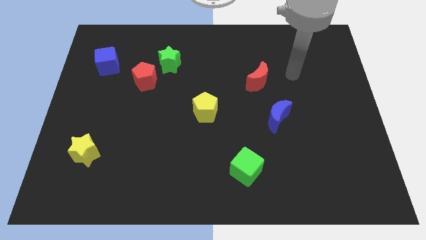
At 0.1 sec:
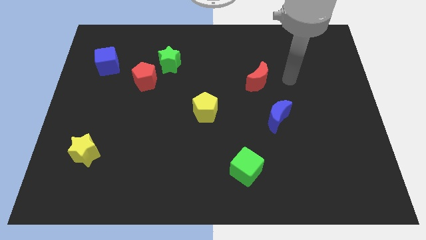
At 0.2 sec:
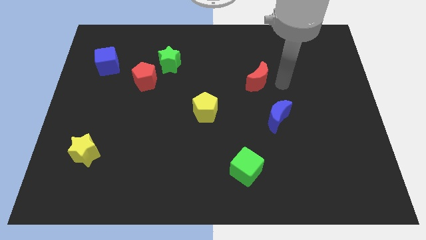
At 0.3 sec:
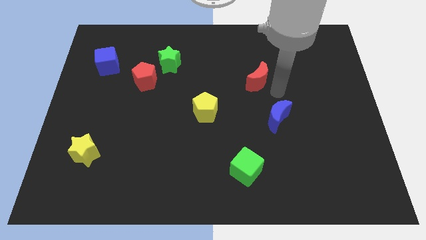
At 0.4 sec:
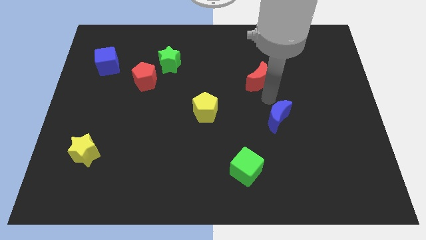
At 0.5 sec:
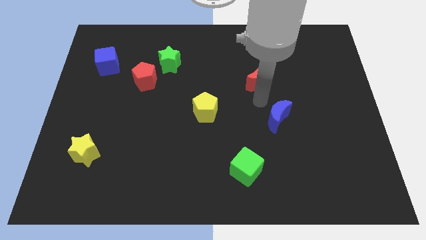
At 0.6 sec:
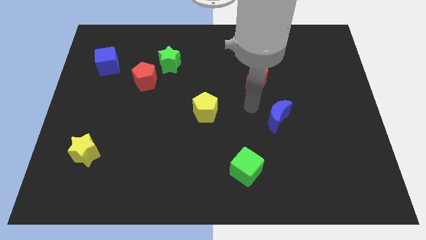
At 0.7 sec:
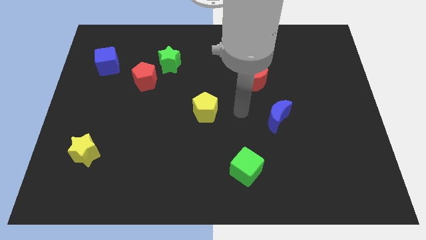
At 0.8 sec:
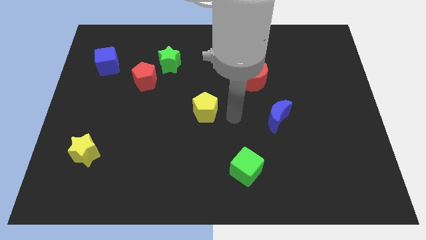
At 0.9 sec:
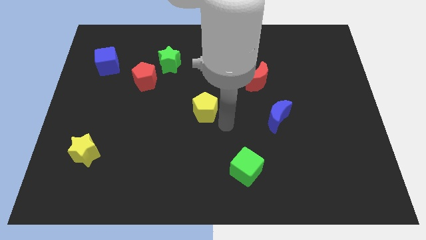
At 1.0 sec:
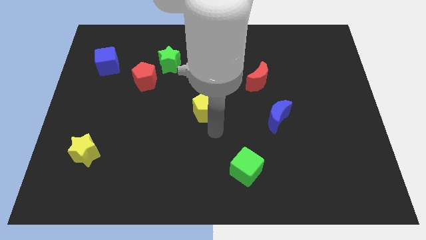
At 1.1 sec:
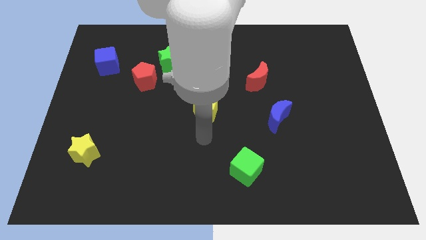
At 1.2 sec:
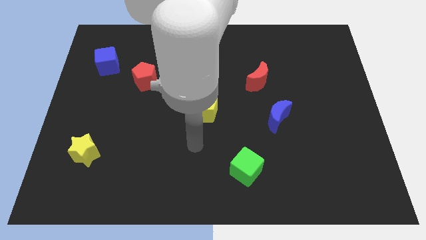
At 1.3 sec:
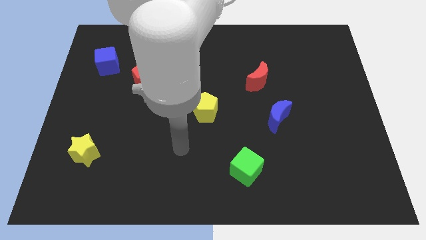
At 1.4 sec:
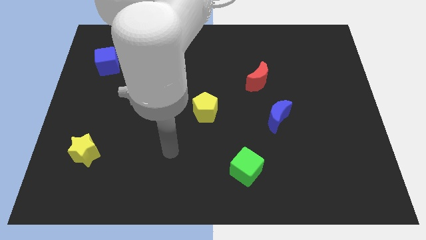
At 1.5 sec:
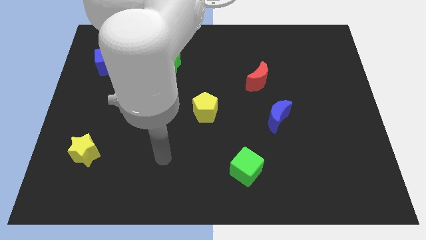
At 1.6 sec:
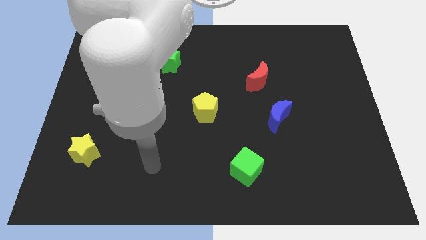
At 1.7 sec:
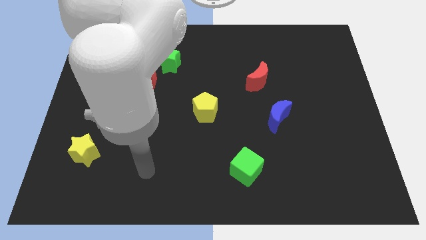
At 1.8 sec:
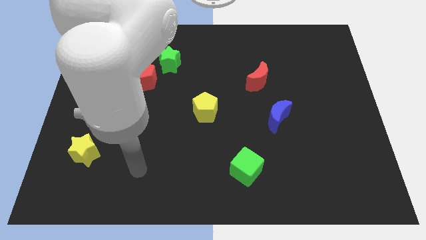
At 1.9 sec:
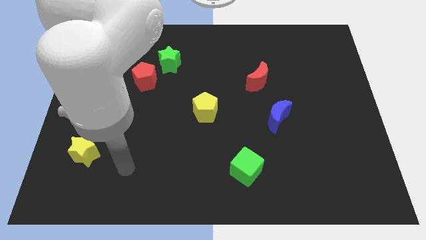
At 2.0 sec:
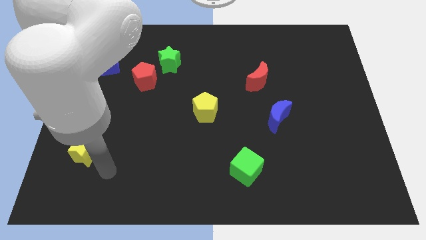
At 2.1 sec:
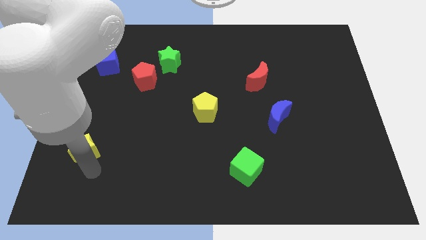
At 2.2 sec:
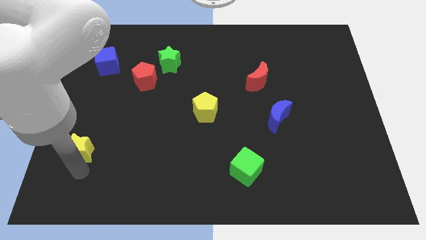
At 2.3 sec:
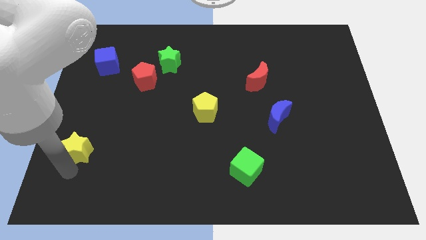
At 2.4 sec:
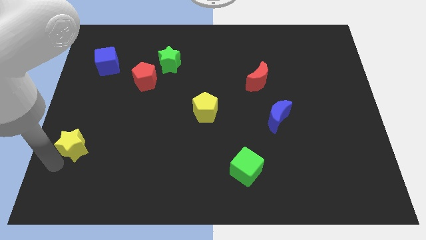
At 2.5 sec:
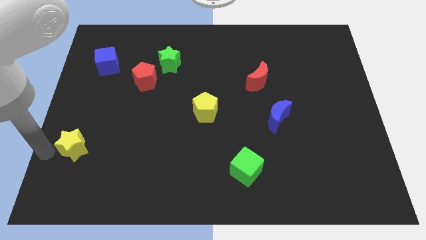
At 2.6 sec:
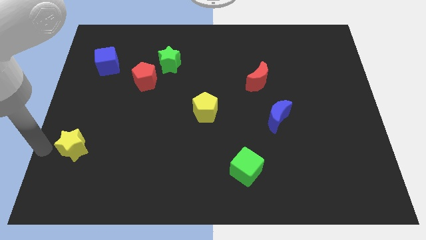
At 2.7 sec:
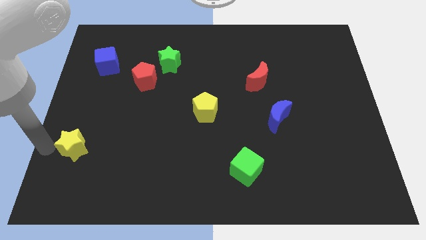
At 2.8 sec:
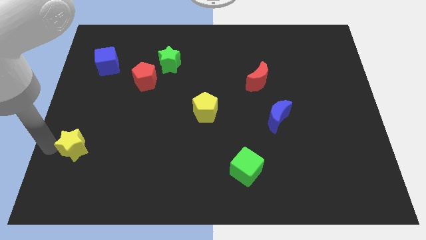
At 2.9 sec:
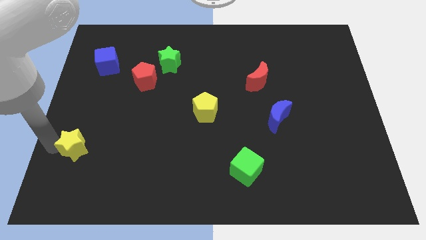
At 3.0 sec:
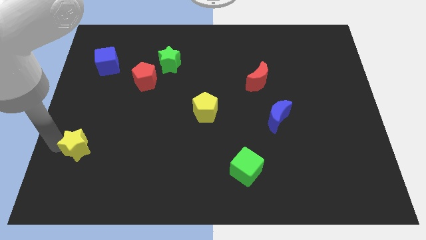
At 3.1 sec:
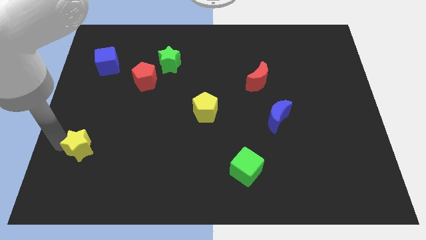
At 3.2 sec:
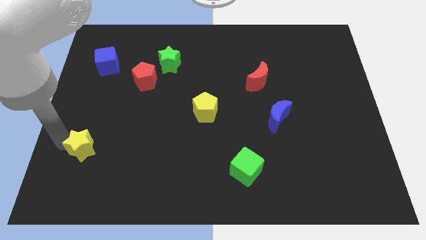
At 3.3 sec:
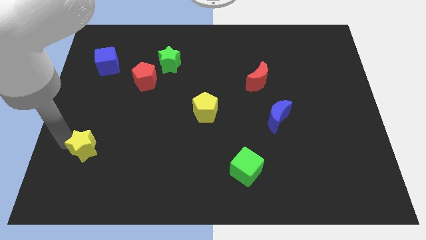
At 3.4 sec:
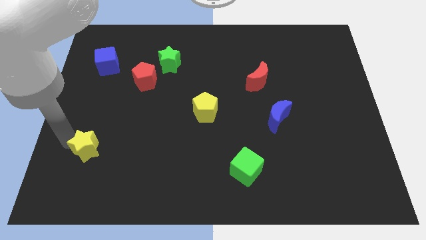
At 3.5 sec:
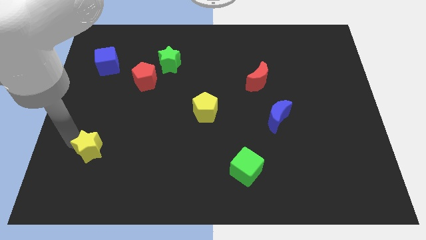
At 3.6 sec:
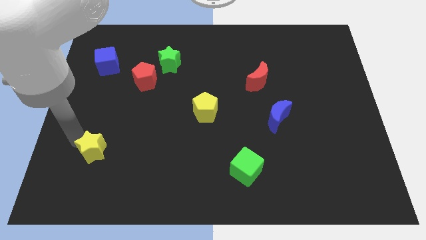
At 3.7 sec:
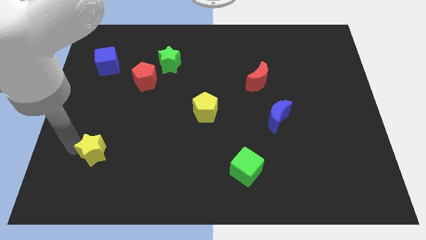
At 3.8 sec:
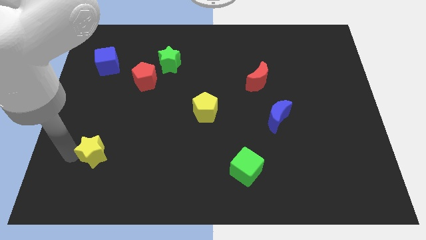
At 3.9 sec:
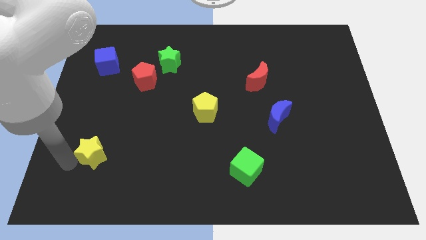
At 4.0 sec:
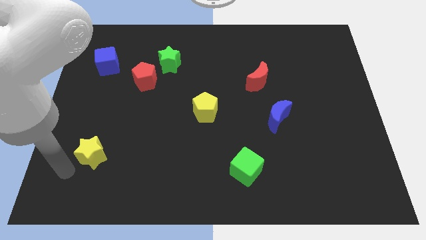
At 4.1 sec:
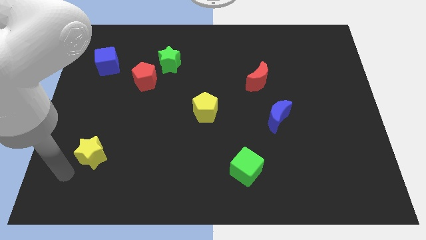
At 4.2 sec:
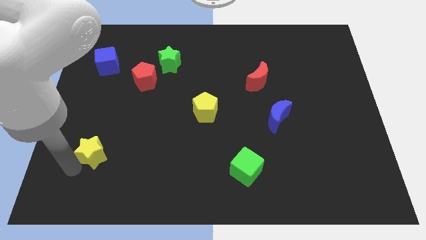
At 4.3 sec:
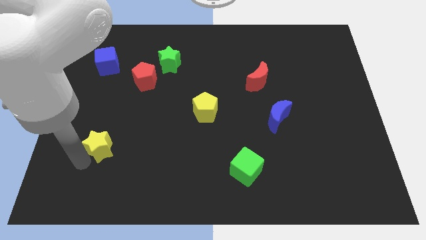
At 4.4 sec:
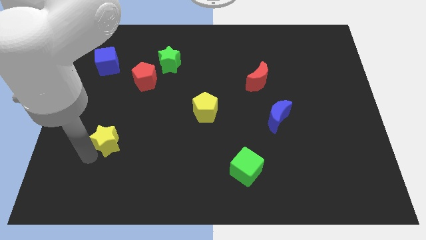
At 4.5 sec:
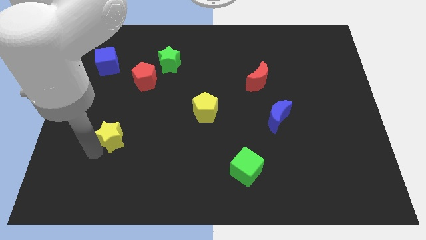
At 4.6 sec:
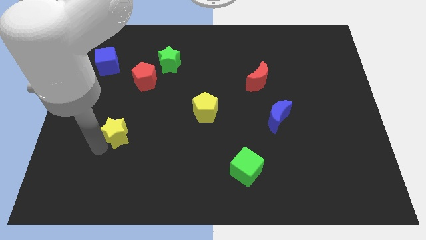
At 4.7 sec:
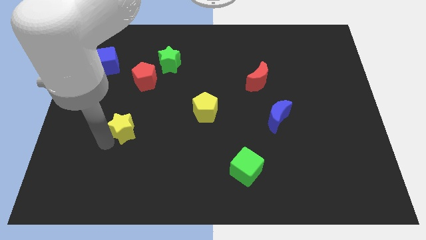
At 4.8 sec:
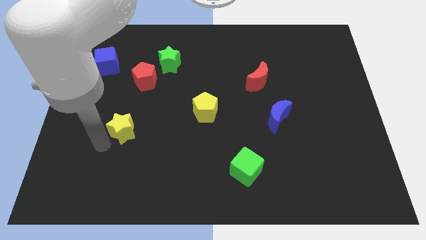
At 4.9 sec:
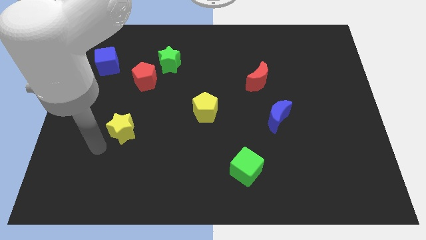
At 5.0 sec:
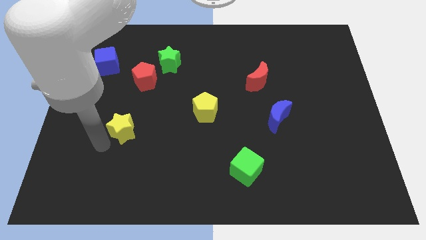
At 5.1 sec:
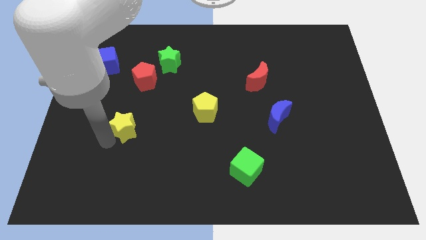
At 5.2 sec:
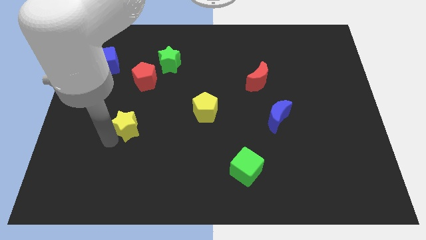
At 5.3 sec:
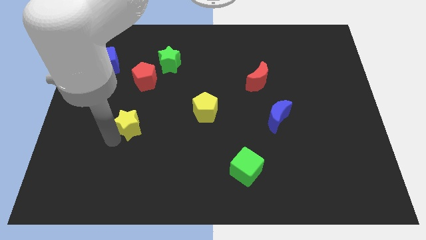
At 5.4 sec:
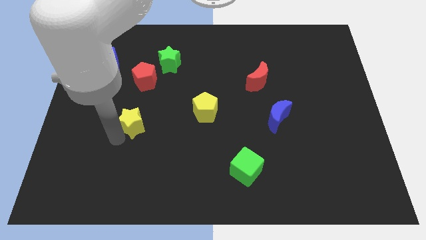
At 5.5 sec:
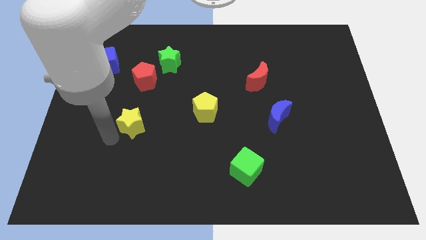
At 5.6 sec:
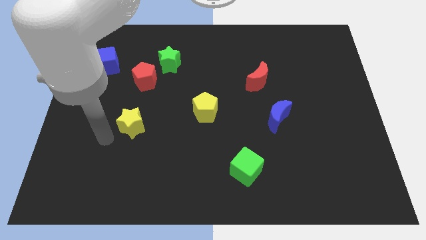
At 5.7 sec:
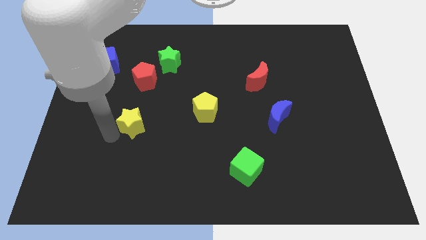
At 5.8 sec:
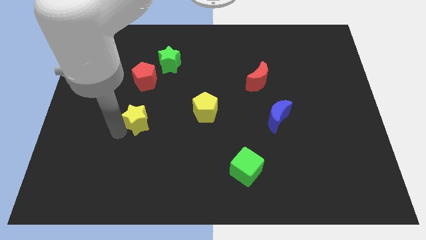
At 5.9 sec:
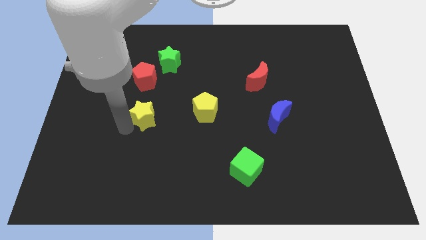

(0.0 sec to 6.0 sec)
move the yellow star to the left side of the yellow pentagon

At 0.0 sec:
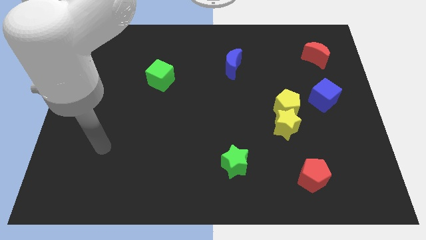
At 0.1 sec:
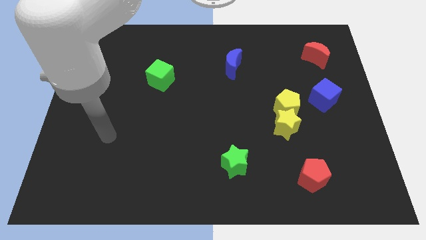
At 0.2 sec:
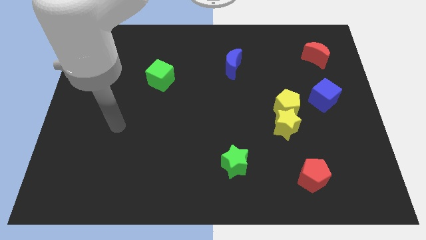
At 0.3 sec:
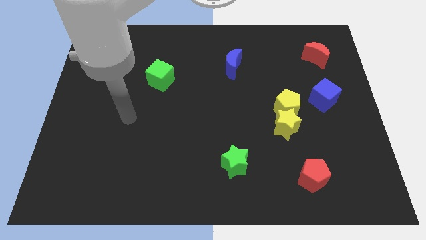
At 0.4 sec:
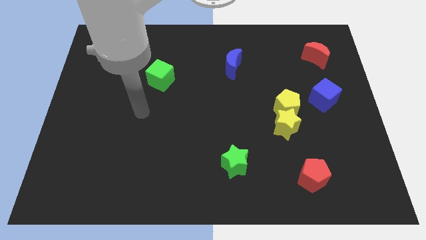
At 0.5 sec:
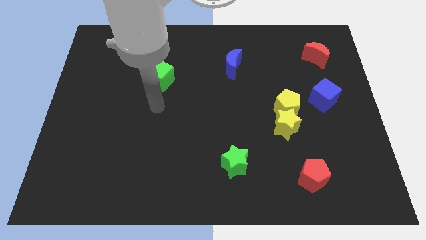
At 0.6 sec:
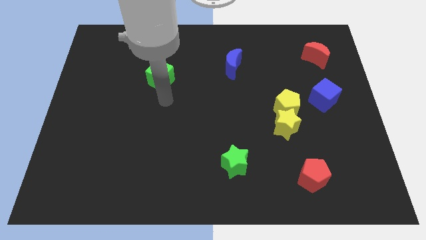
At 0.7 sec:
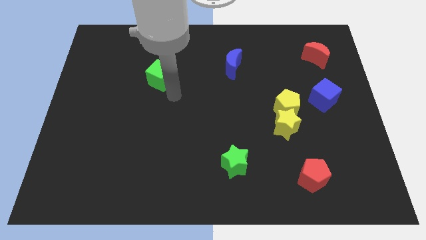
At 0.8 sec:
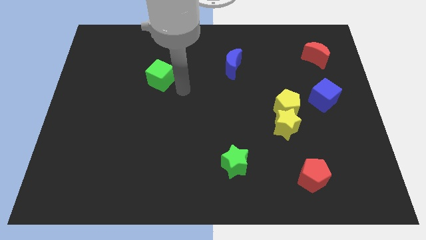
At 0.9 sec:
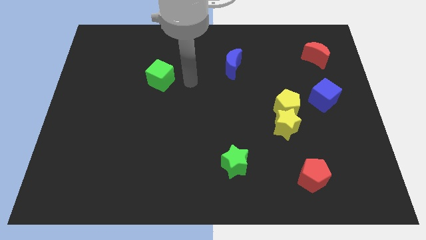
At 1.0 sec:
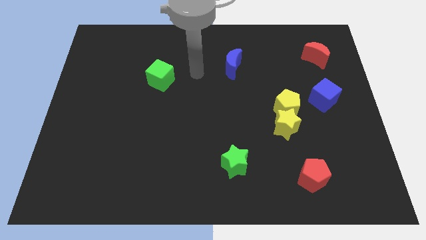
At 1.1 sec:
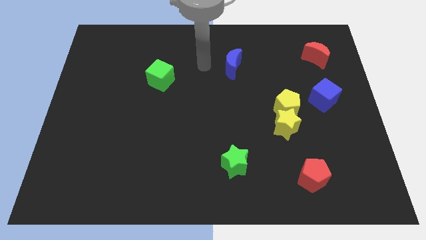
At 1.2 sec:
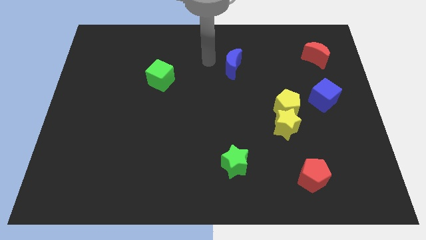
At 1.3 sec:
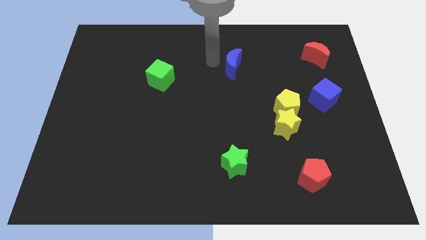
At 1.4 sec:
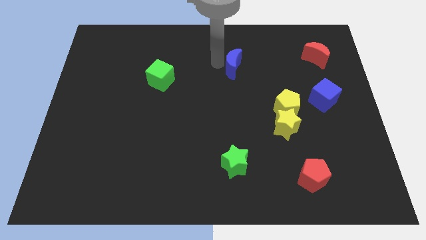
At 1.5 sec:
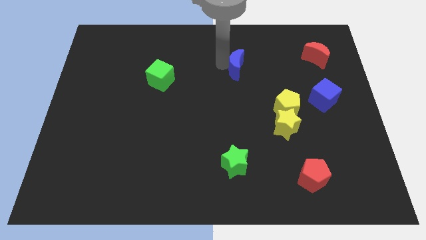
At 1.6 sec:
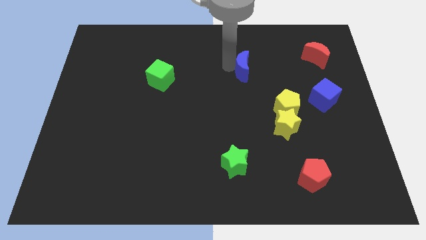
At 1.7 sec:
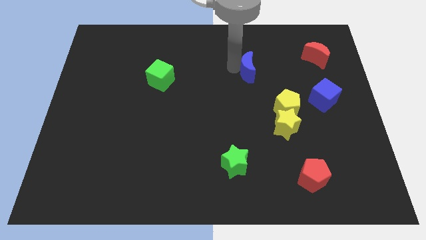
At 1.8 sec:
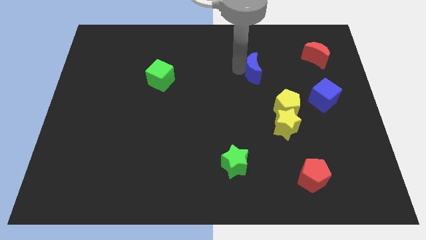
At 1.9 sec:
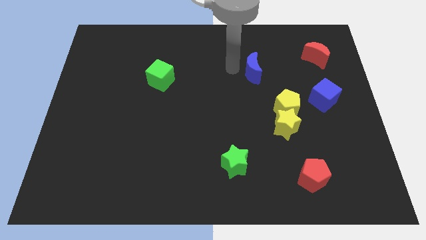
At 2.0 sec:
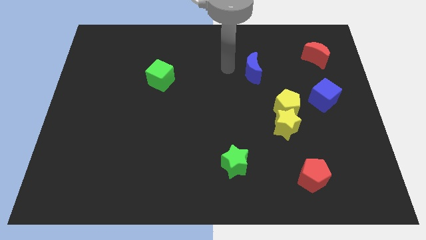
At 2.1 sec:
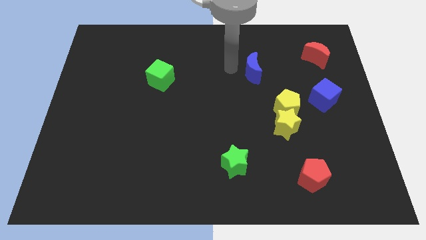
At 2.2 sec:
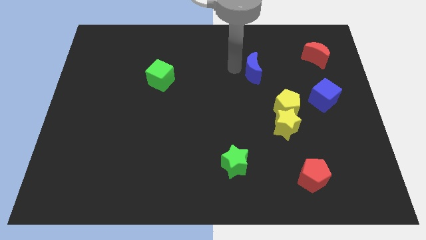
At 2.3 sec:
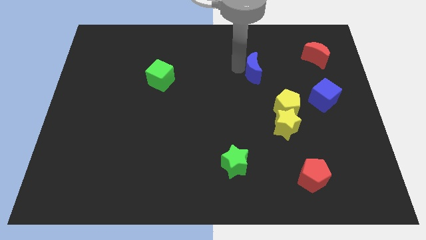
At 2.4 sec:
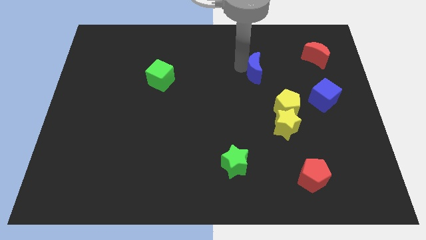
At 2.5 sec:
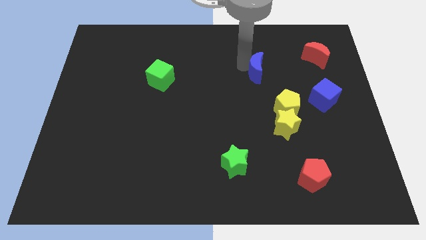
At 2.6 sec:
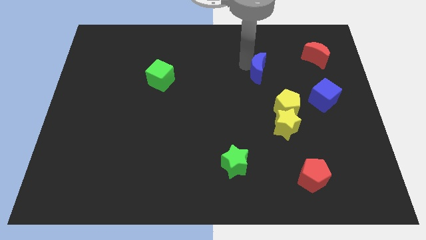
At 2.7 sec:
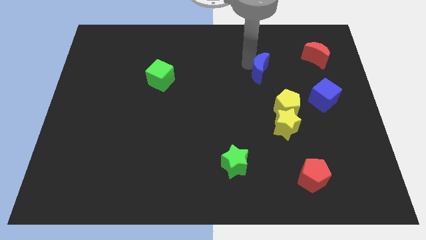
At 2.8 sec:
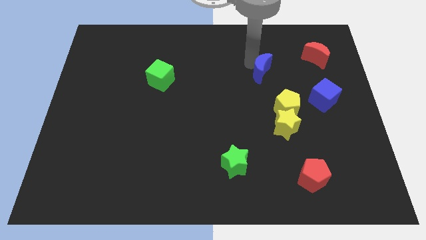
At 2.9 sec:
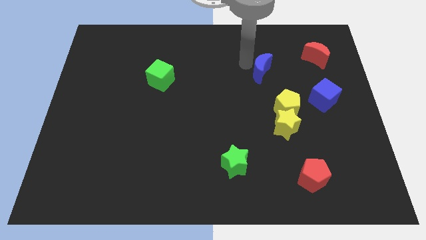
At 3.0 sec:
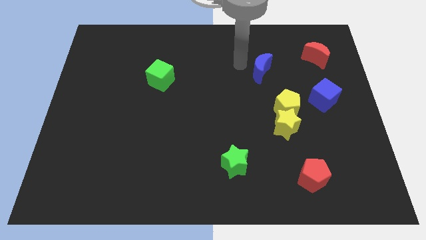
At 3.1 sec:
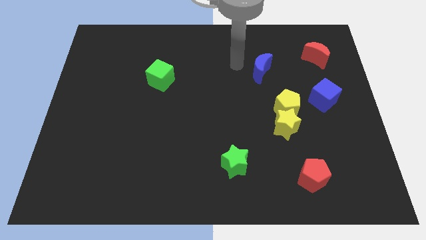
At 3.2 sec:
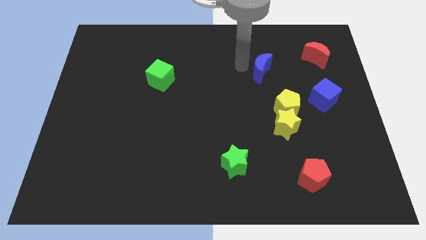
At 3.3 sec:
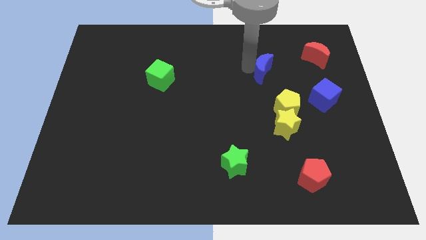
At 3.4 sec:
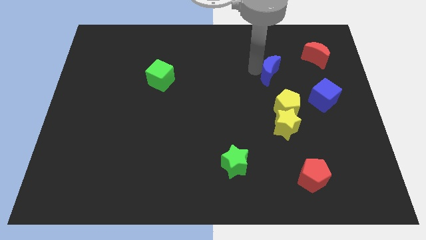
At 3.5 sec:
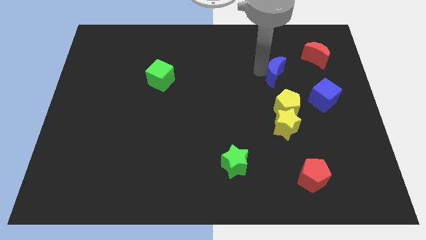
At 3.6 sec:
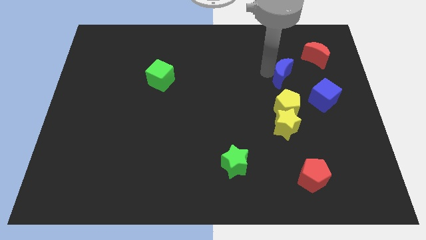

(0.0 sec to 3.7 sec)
push the blue moon diagonally up and to the left of the blue cube
